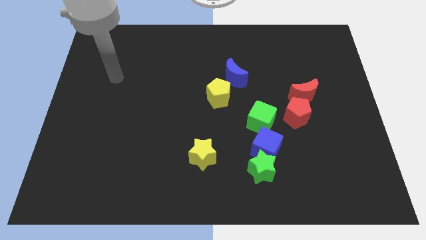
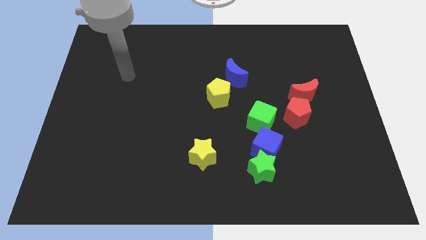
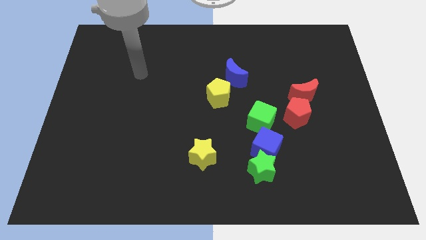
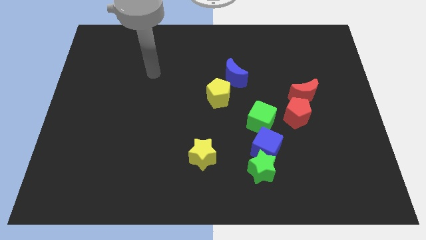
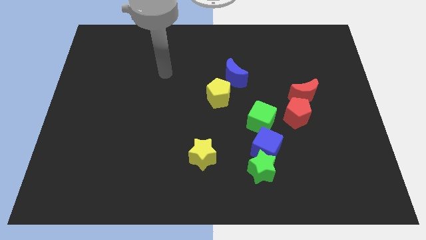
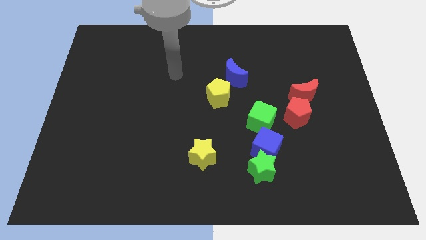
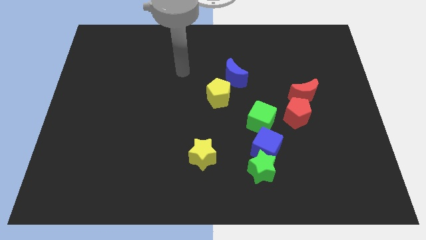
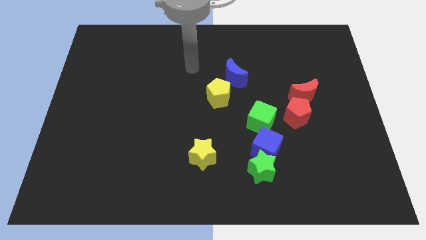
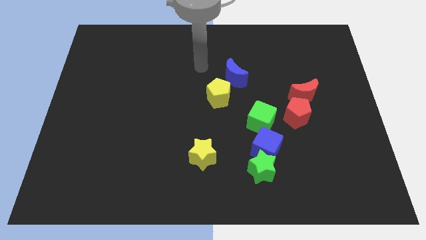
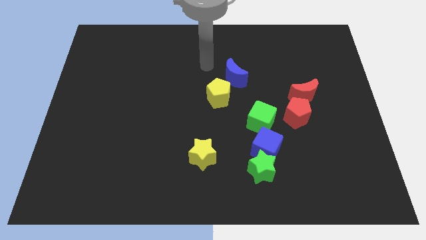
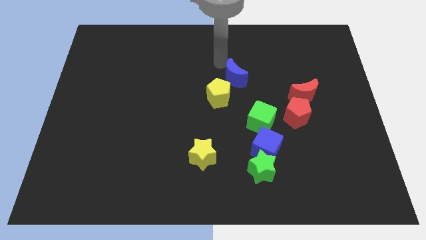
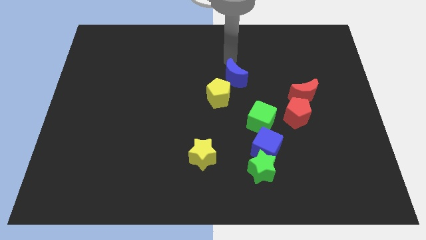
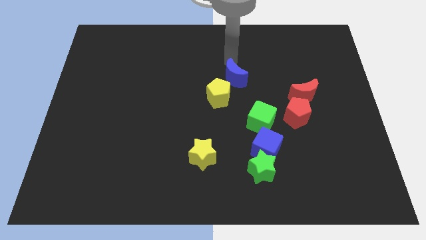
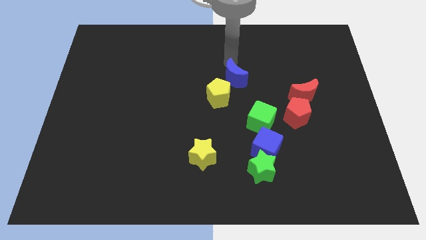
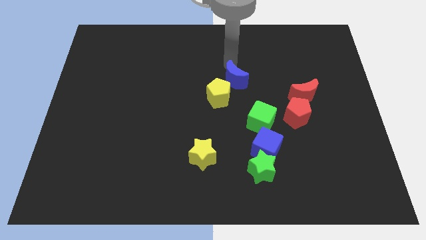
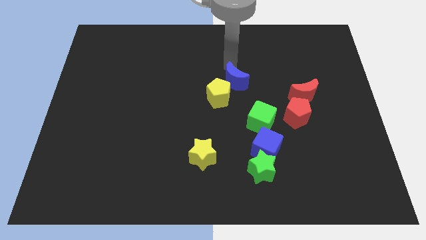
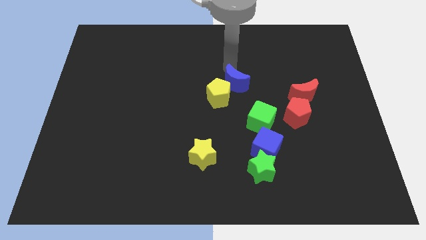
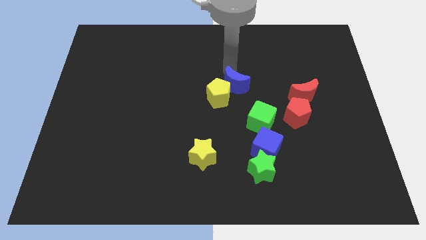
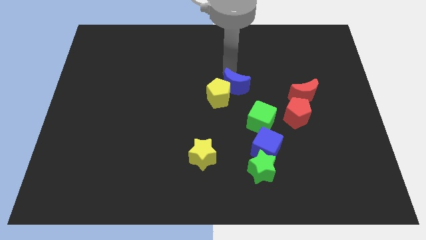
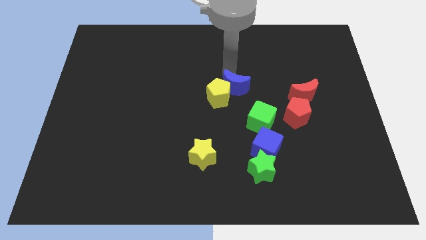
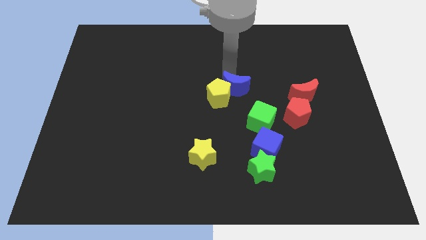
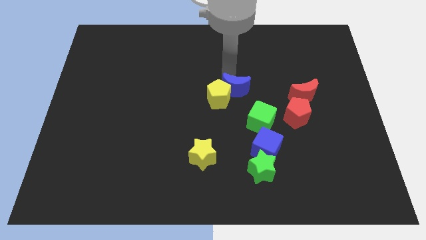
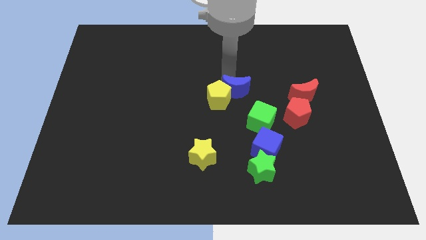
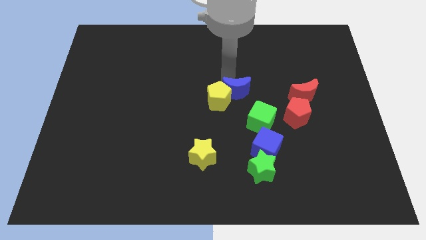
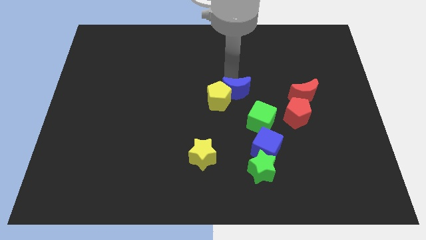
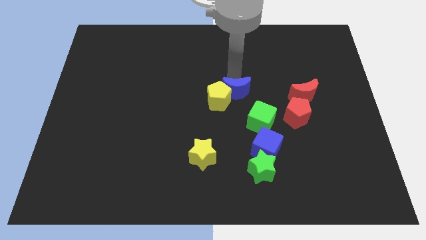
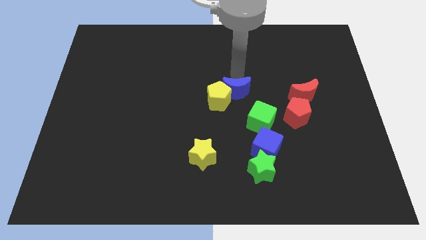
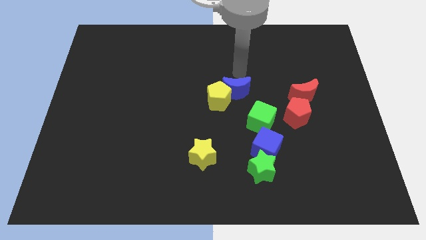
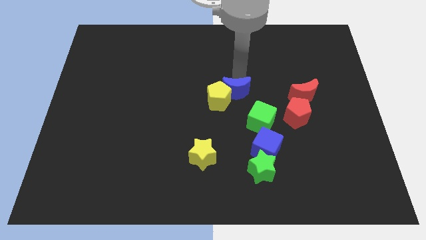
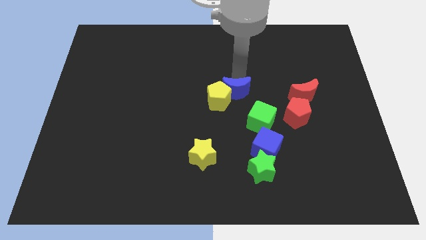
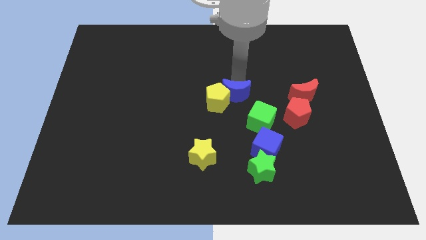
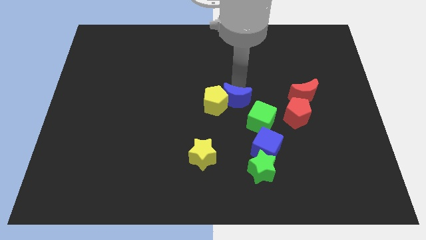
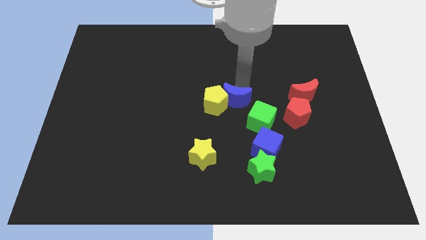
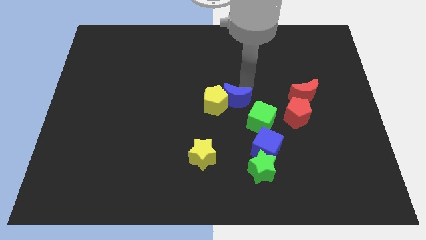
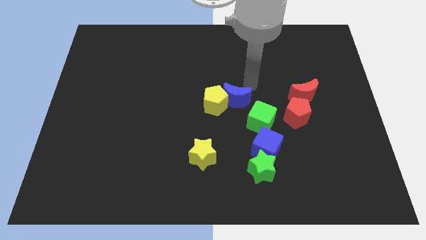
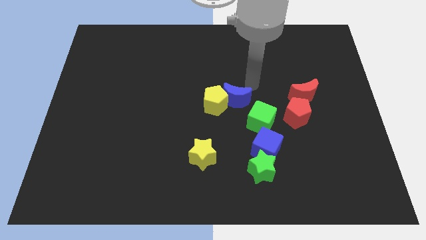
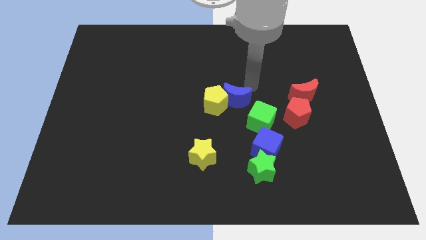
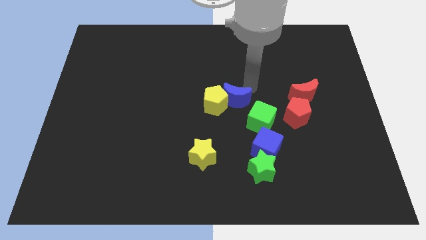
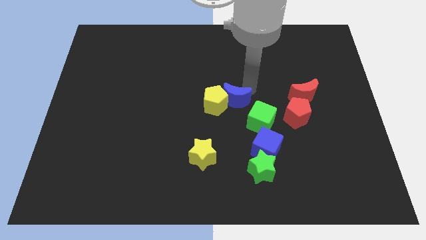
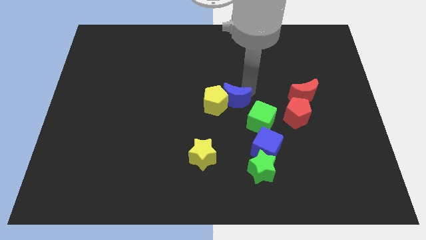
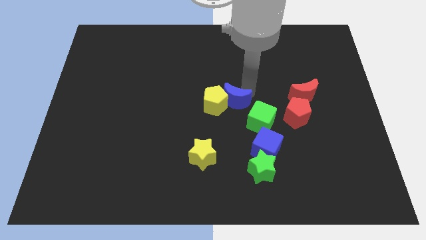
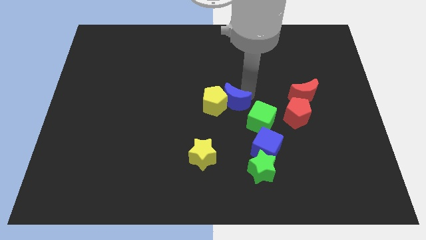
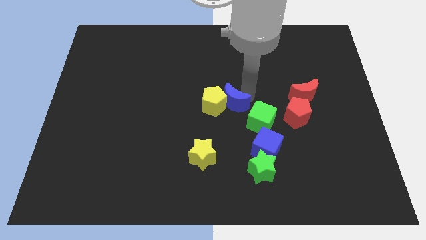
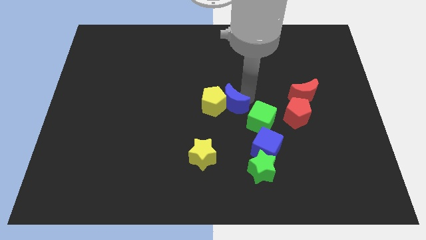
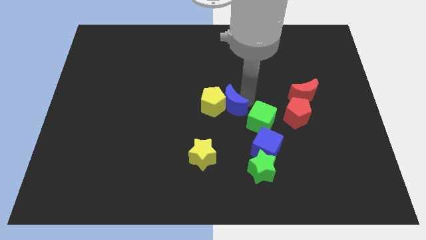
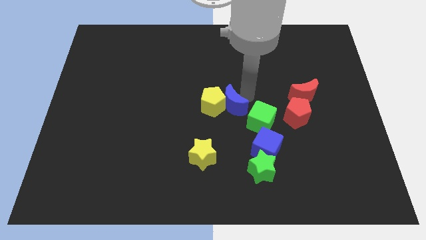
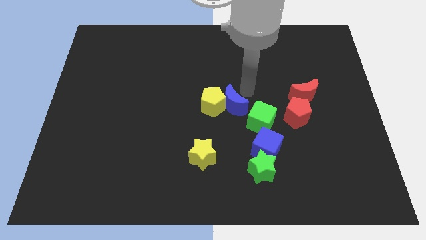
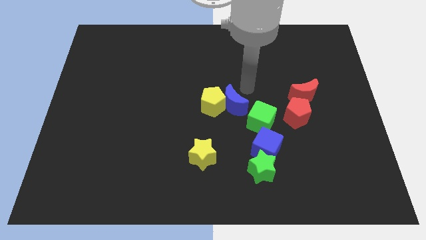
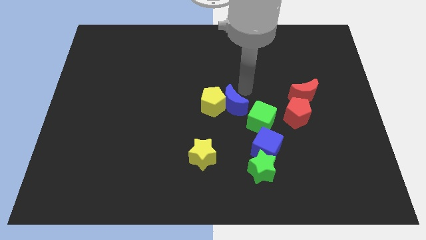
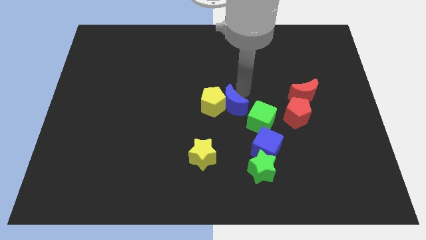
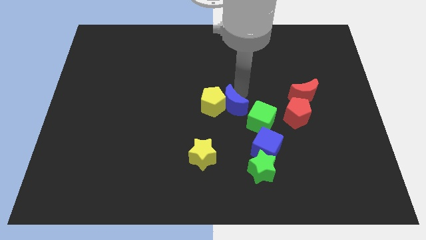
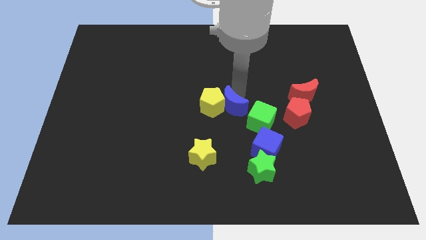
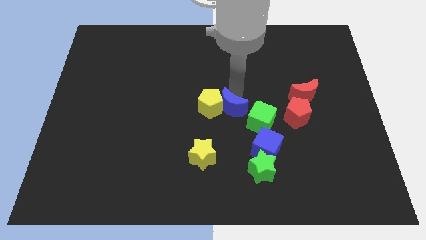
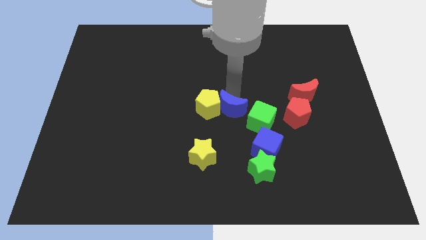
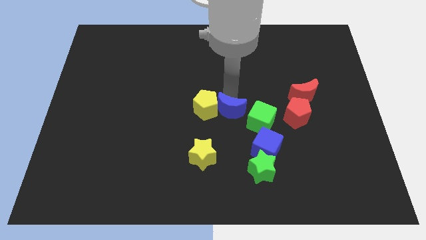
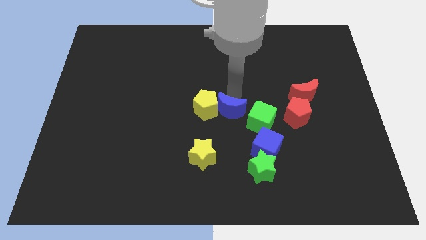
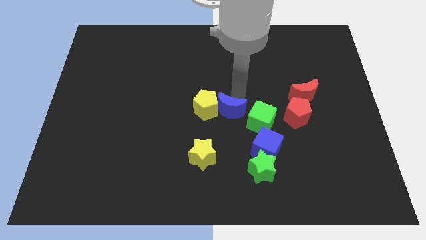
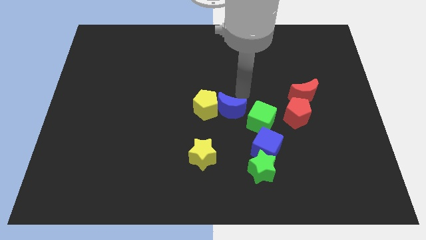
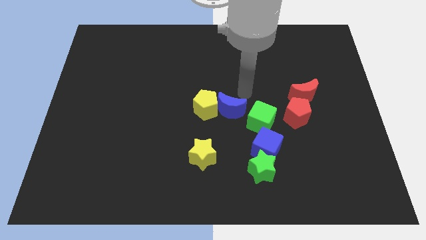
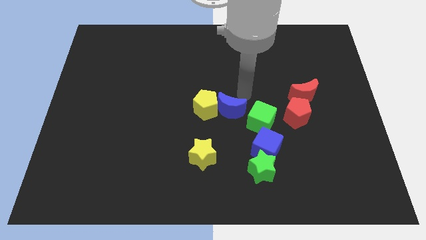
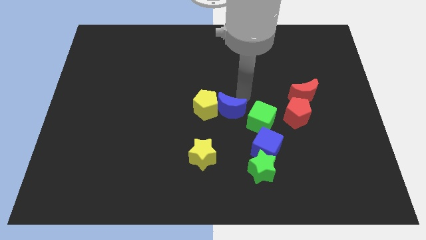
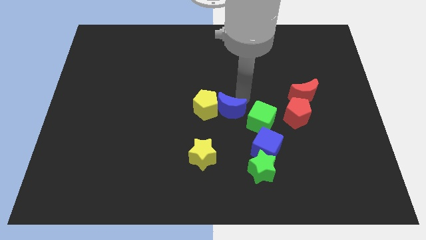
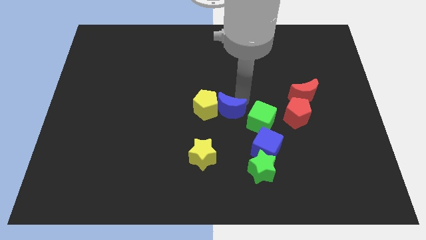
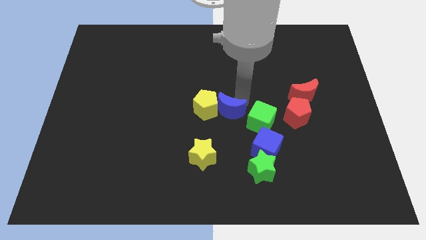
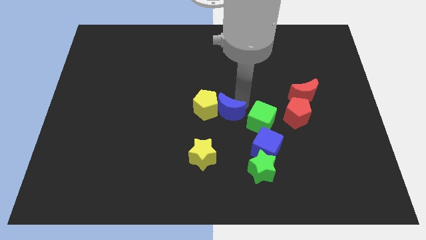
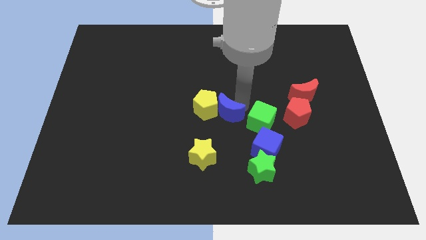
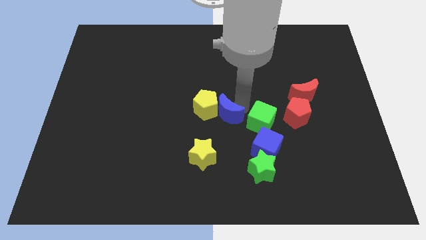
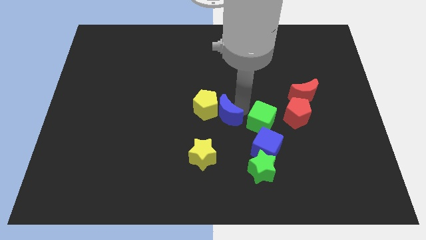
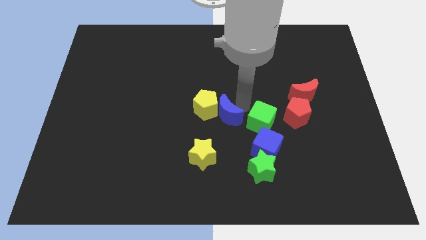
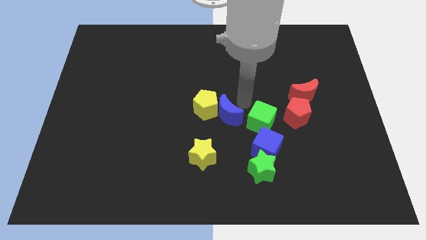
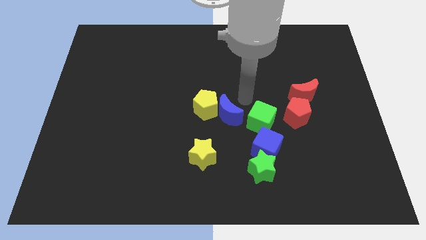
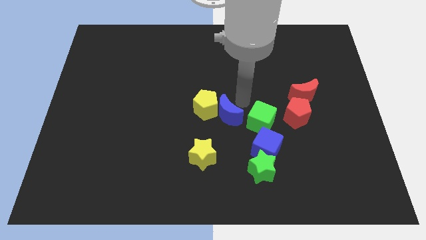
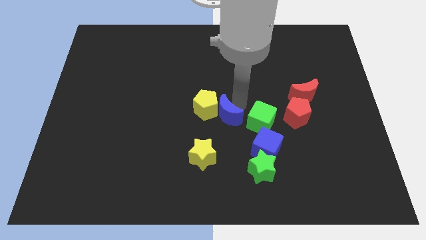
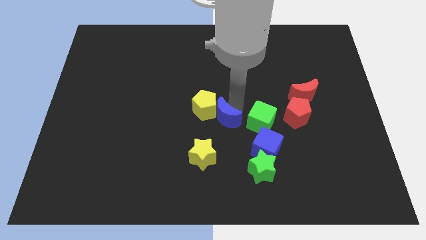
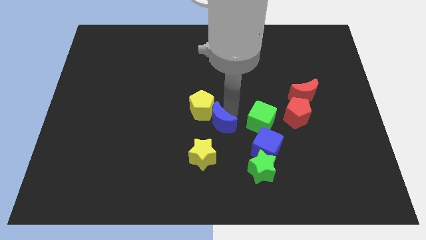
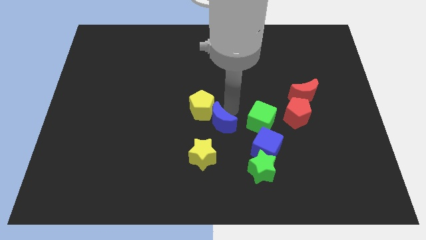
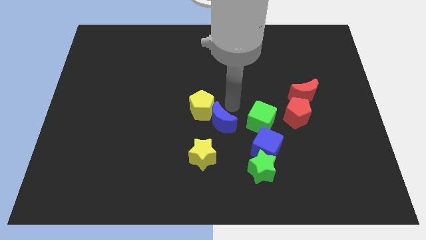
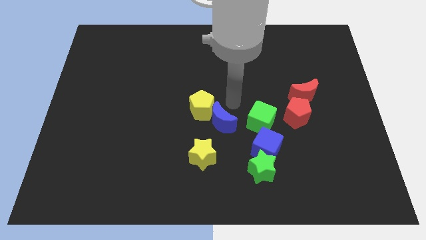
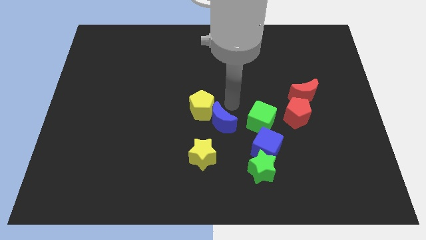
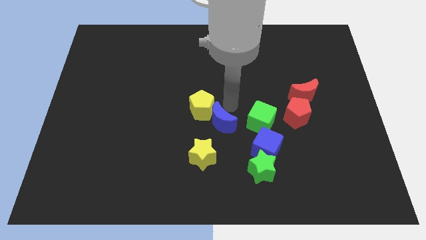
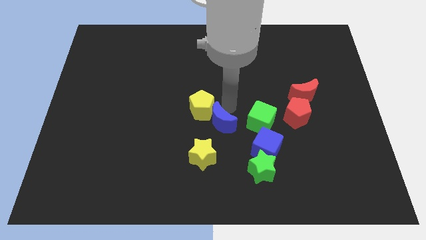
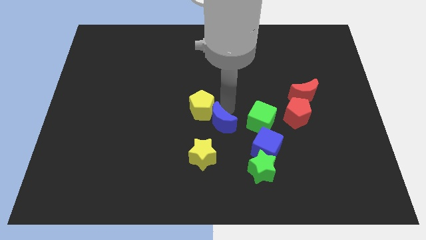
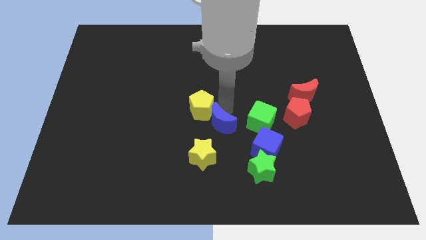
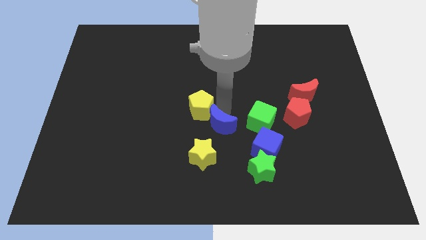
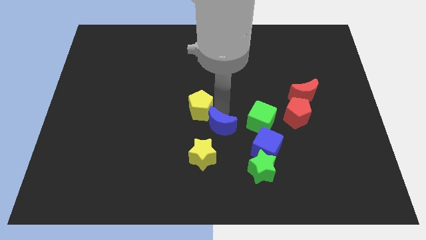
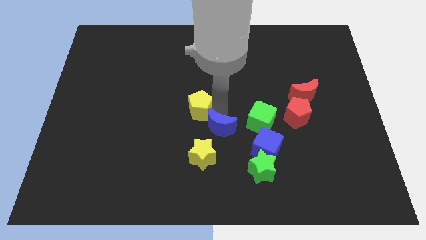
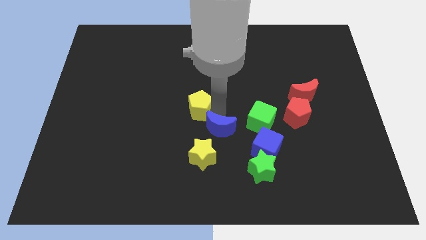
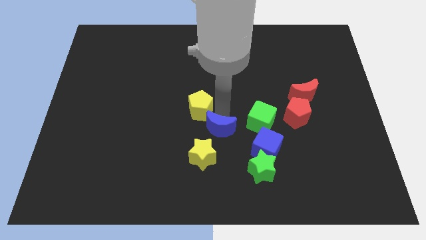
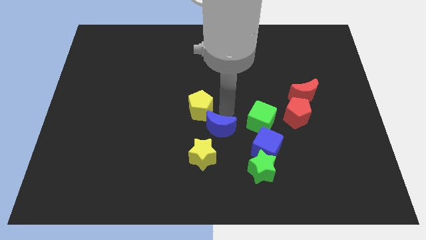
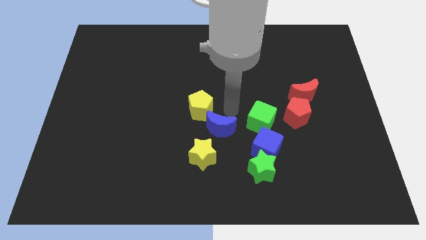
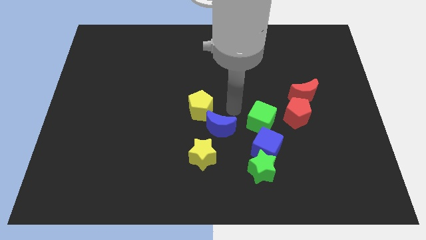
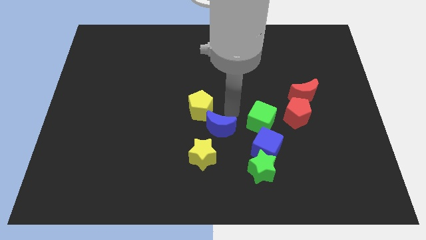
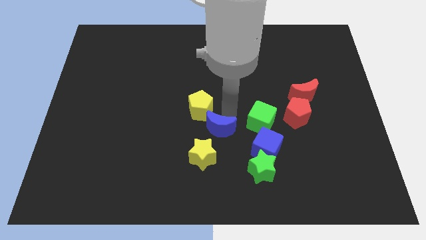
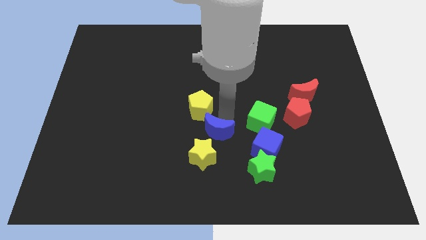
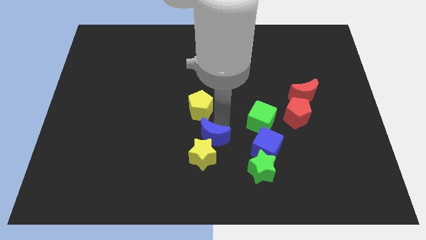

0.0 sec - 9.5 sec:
slide the blue moon close to the yellow star
